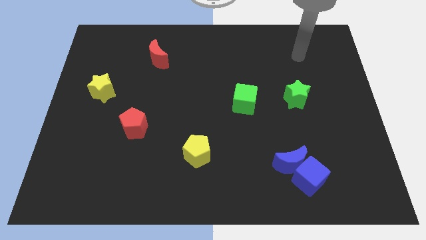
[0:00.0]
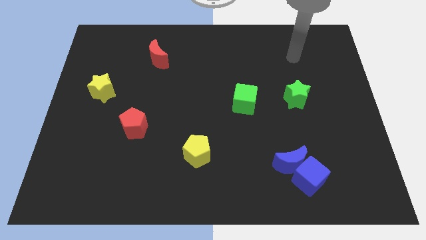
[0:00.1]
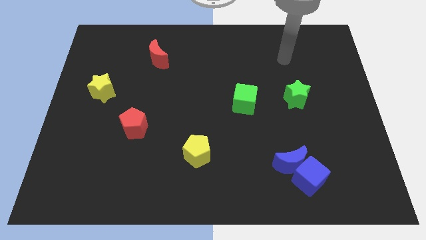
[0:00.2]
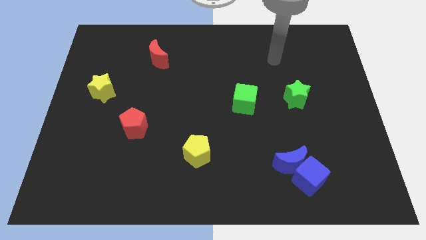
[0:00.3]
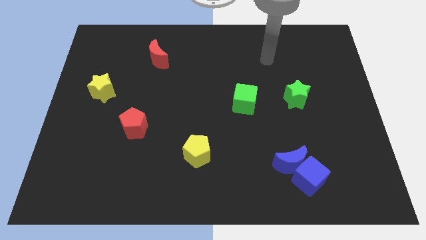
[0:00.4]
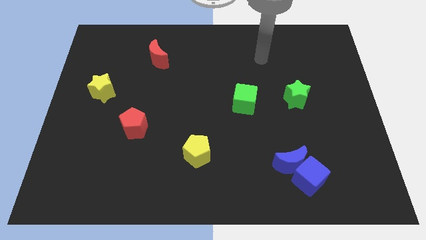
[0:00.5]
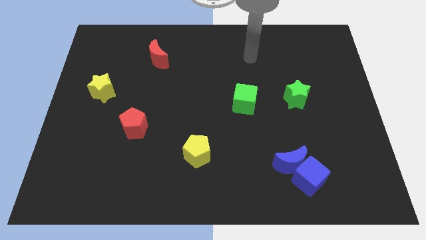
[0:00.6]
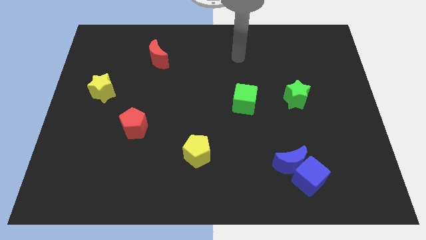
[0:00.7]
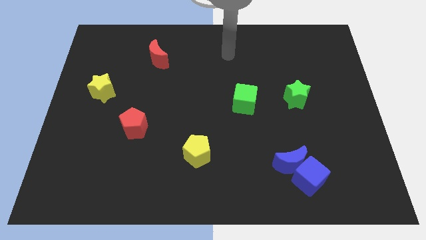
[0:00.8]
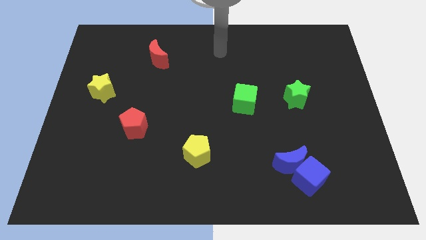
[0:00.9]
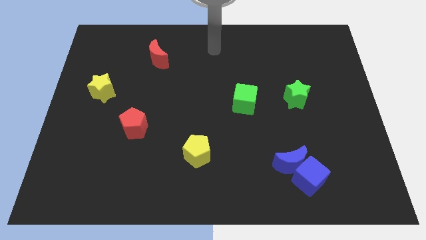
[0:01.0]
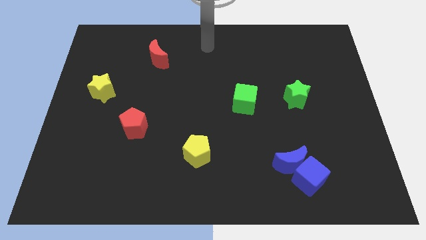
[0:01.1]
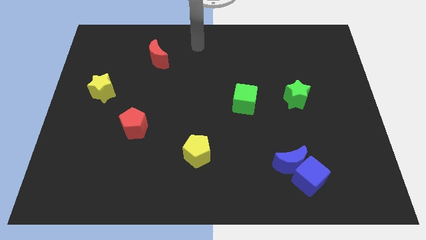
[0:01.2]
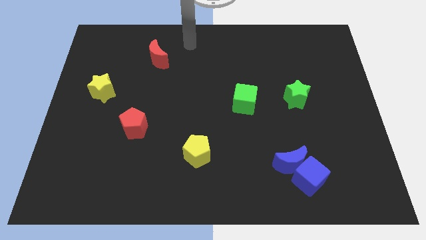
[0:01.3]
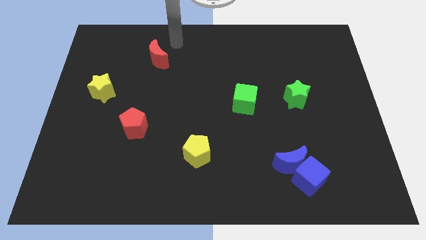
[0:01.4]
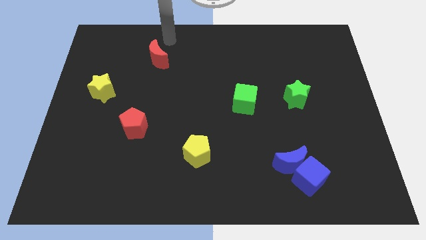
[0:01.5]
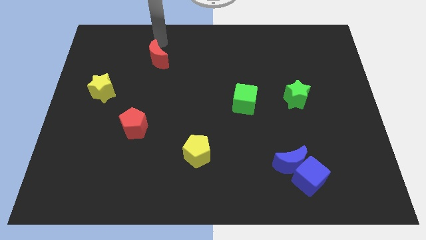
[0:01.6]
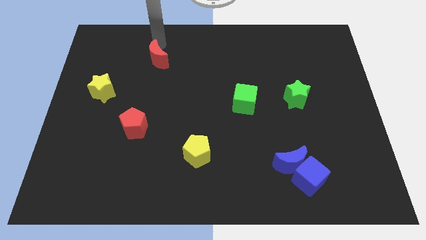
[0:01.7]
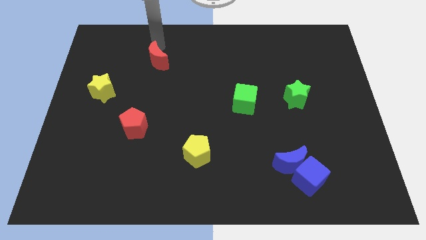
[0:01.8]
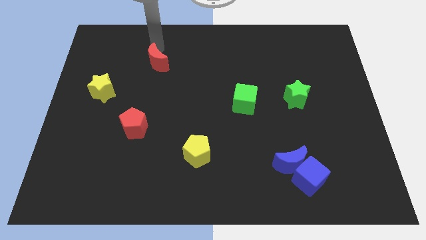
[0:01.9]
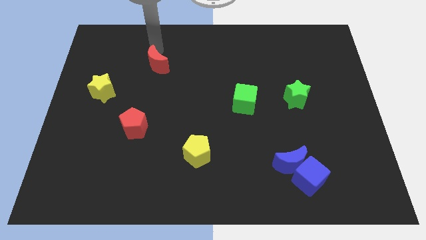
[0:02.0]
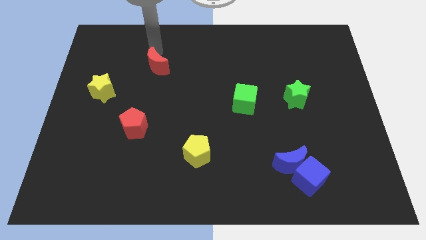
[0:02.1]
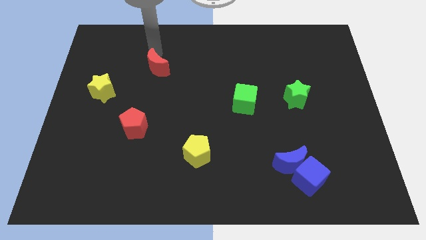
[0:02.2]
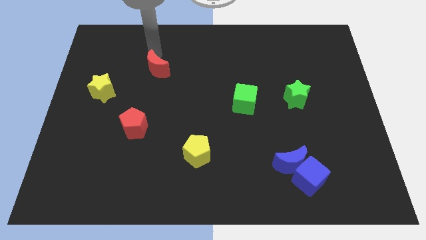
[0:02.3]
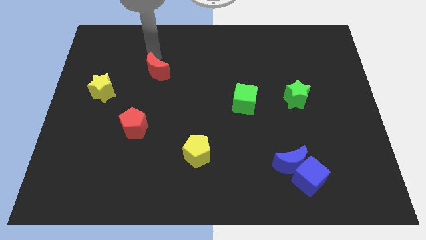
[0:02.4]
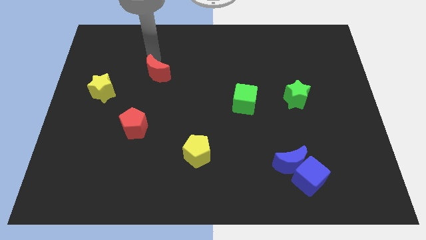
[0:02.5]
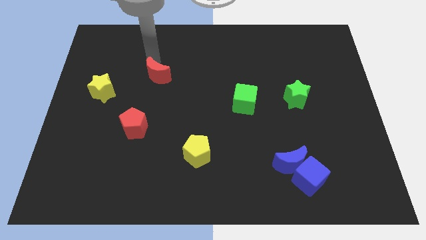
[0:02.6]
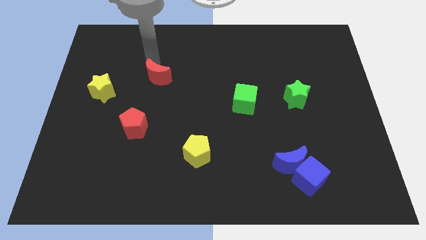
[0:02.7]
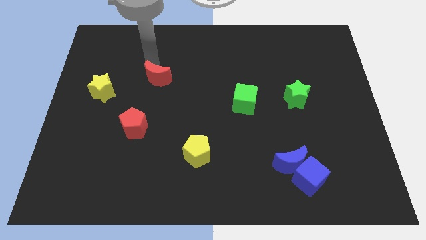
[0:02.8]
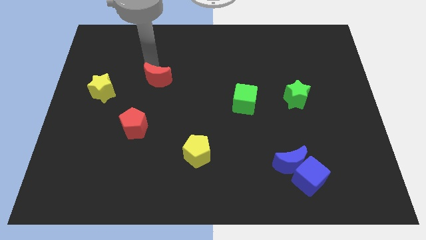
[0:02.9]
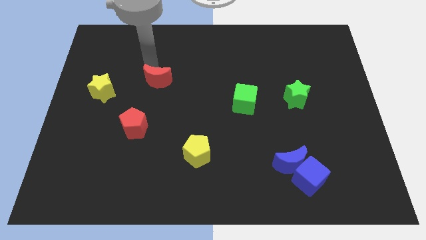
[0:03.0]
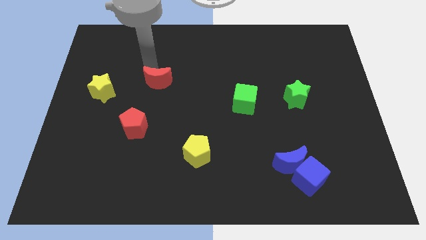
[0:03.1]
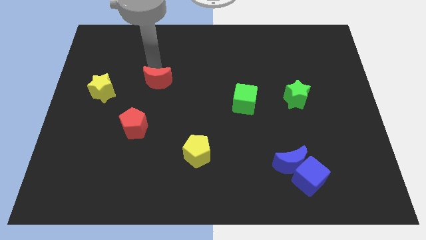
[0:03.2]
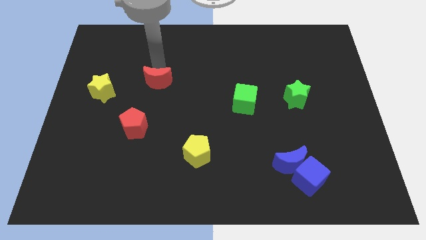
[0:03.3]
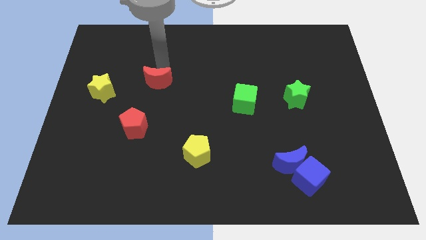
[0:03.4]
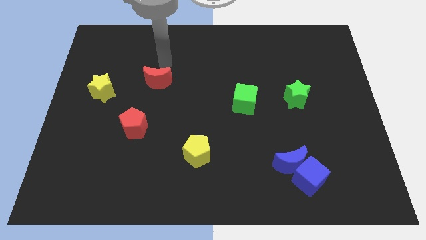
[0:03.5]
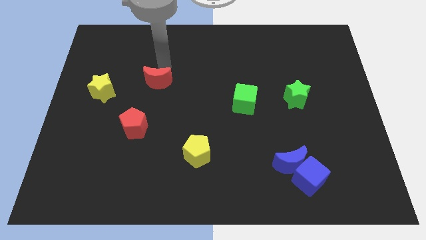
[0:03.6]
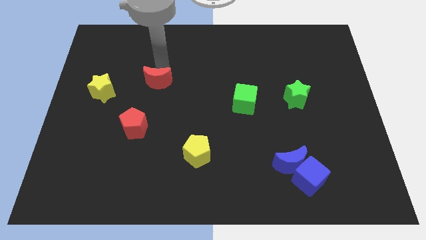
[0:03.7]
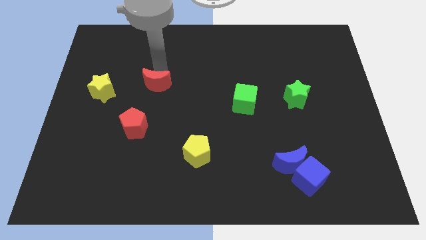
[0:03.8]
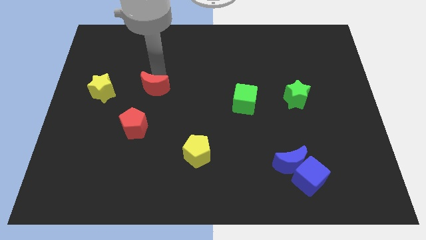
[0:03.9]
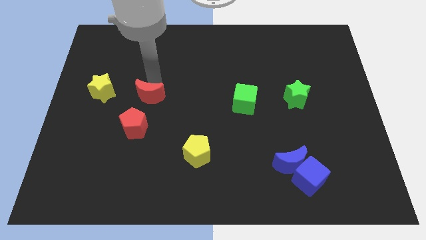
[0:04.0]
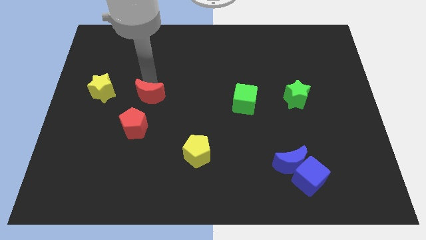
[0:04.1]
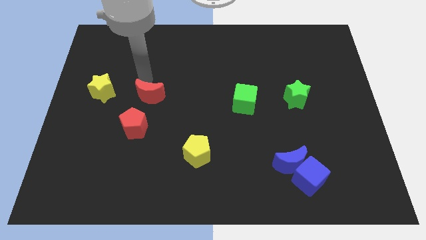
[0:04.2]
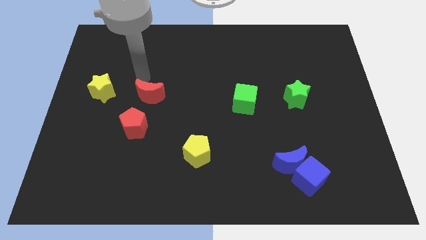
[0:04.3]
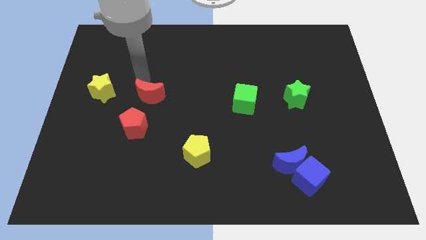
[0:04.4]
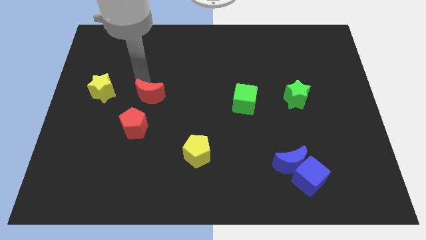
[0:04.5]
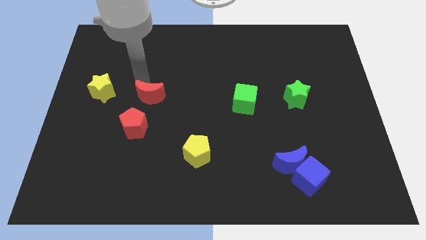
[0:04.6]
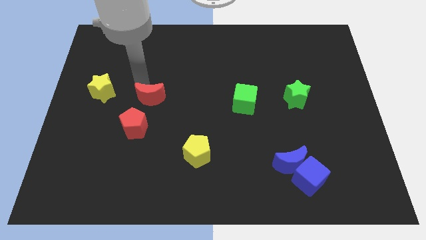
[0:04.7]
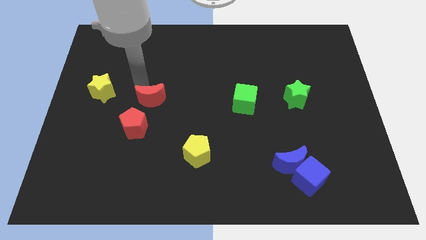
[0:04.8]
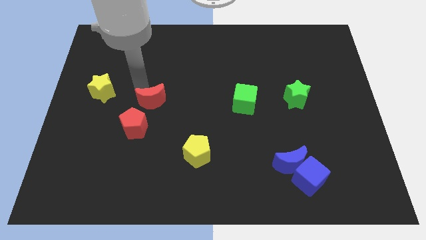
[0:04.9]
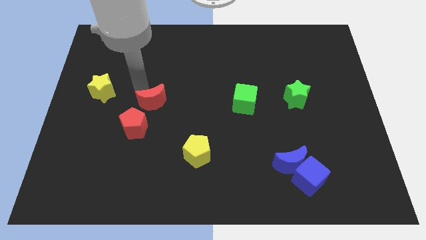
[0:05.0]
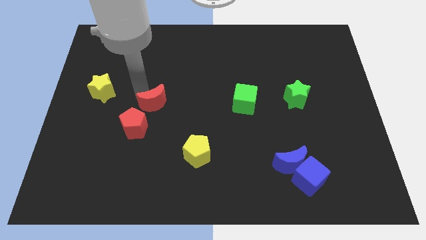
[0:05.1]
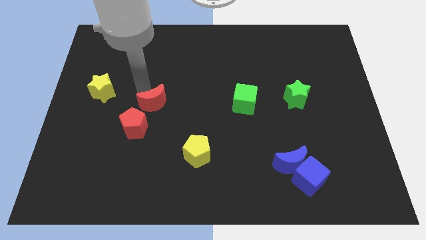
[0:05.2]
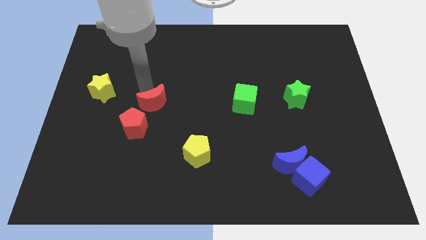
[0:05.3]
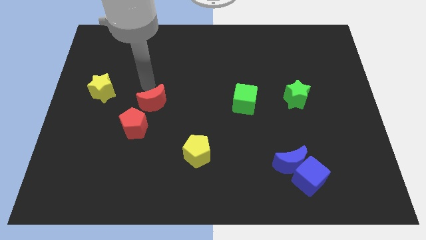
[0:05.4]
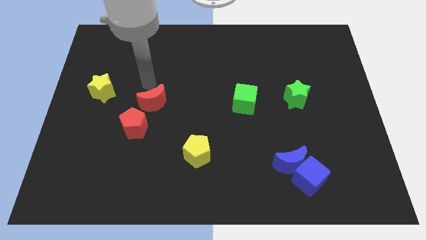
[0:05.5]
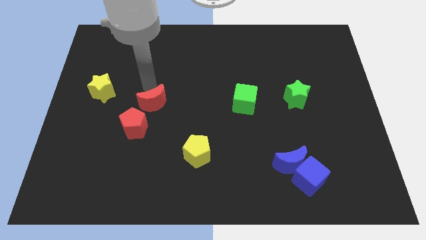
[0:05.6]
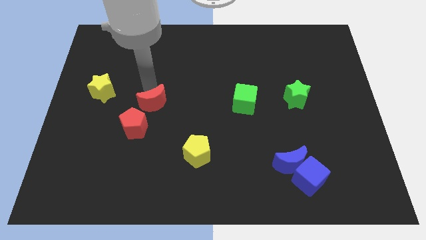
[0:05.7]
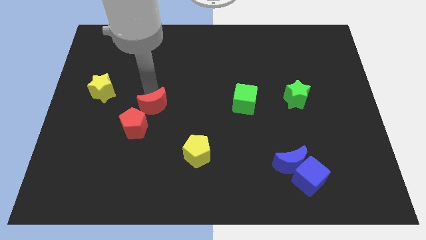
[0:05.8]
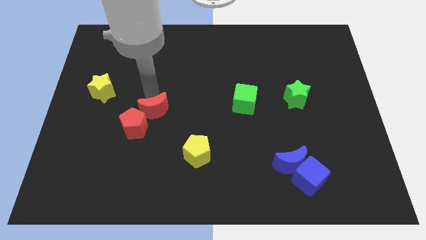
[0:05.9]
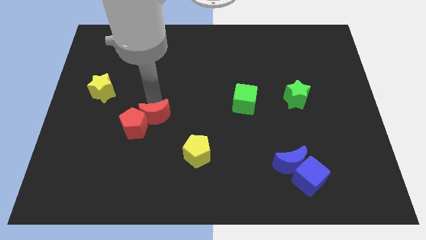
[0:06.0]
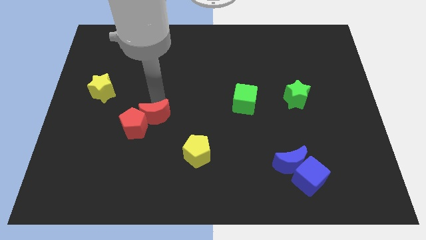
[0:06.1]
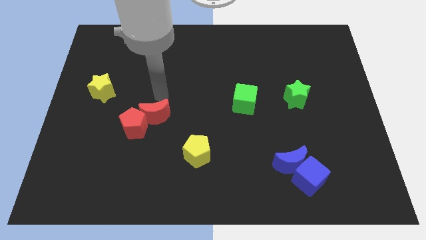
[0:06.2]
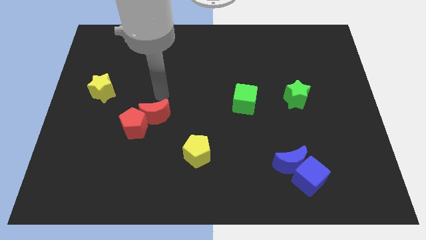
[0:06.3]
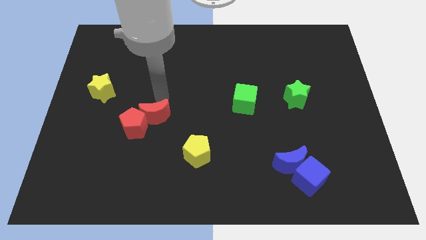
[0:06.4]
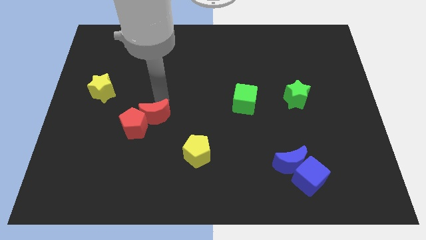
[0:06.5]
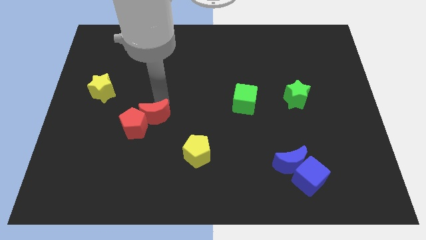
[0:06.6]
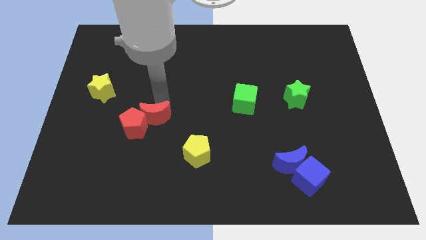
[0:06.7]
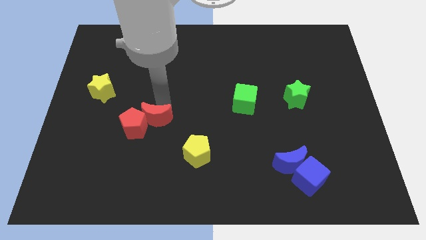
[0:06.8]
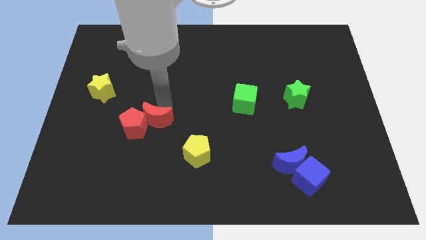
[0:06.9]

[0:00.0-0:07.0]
push the red moon downwards

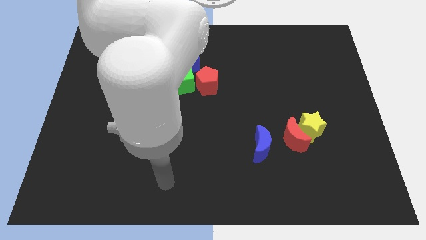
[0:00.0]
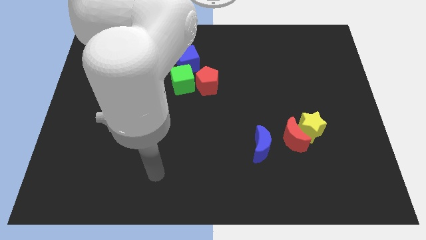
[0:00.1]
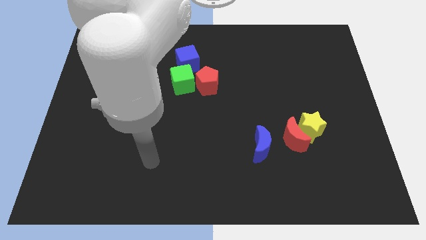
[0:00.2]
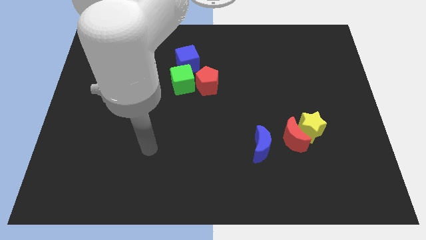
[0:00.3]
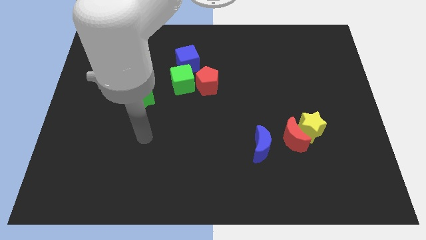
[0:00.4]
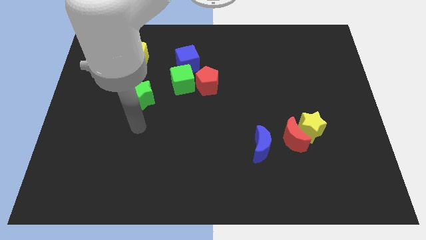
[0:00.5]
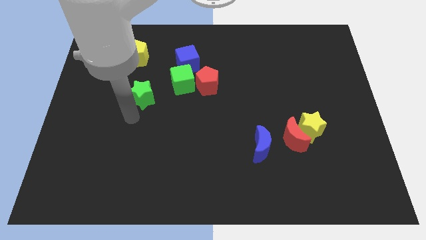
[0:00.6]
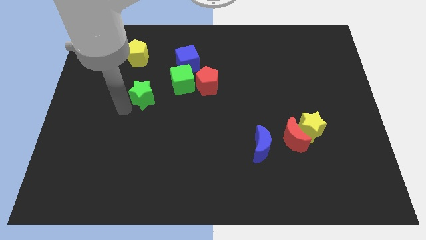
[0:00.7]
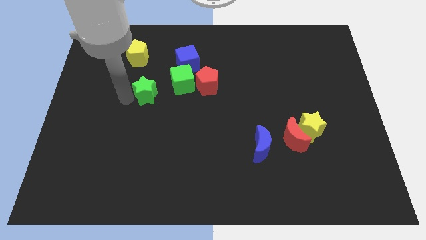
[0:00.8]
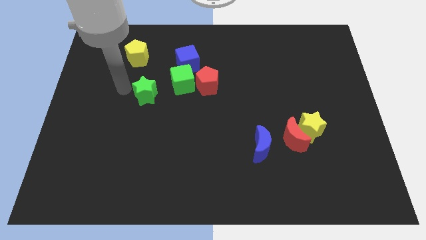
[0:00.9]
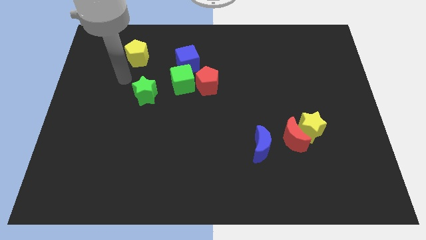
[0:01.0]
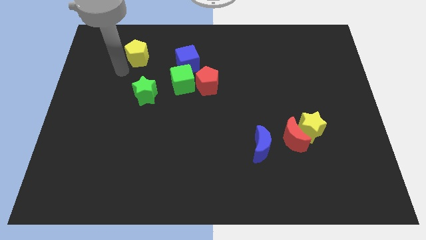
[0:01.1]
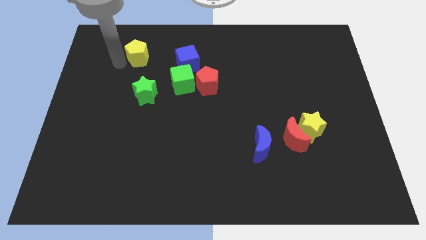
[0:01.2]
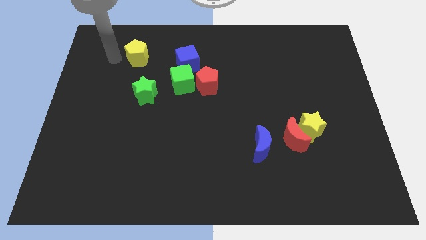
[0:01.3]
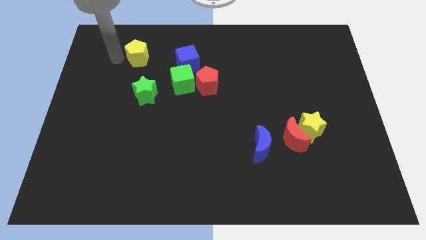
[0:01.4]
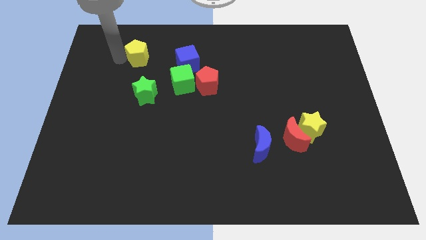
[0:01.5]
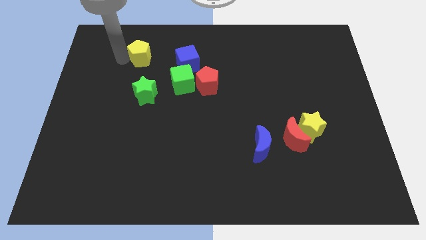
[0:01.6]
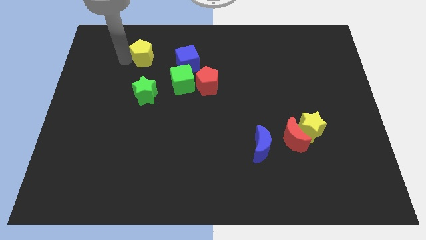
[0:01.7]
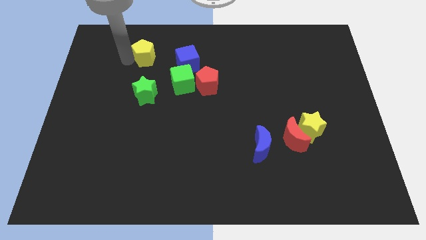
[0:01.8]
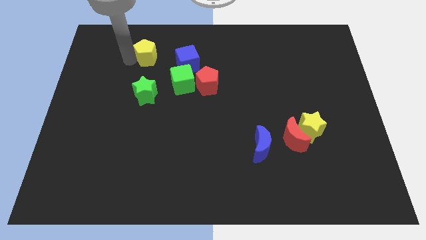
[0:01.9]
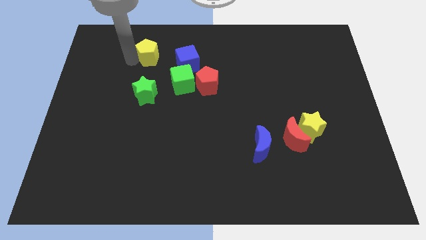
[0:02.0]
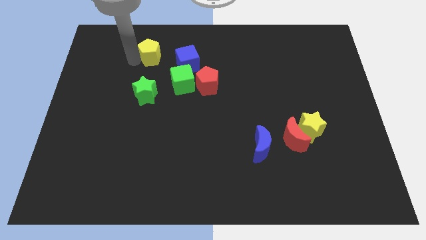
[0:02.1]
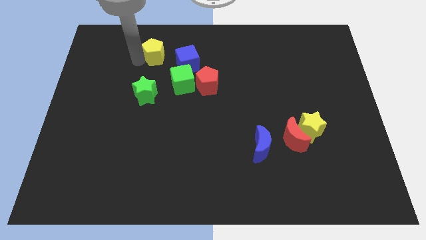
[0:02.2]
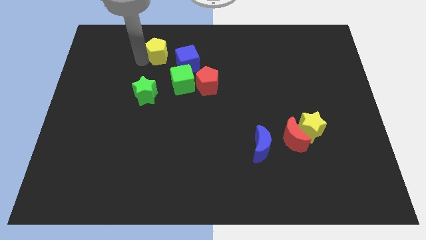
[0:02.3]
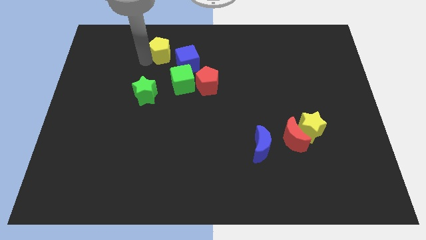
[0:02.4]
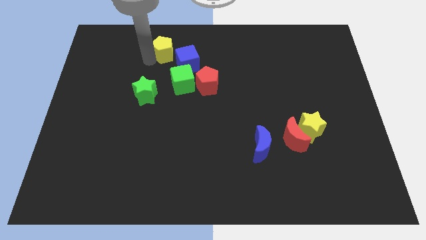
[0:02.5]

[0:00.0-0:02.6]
slide the yellow pentagon a little right
